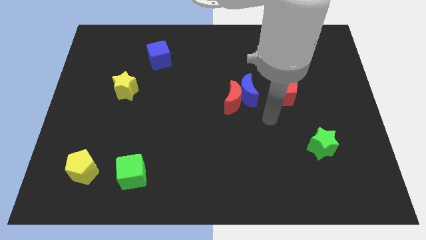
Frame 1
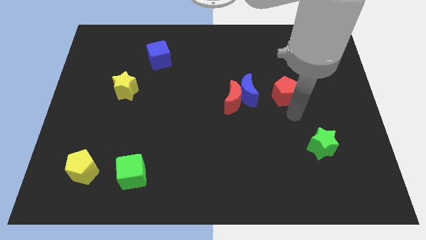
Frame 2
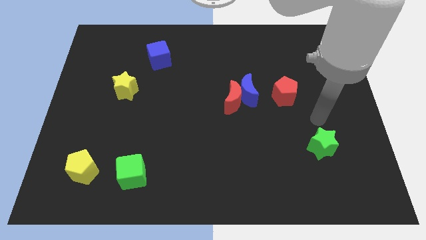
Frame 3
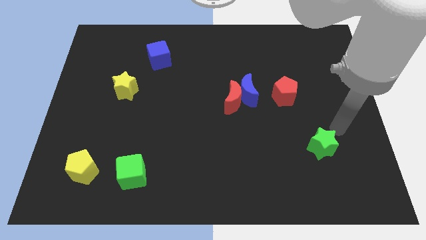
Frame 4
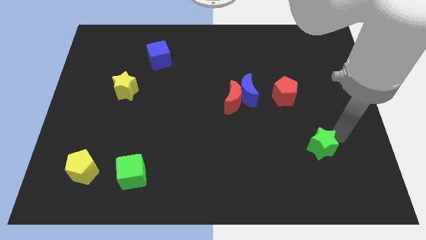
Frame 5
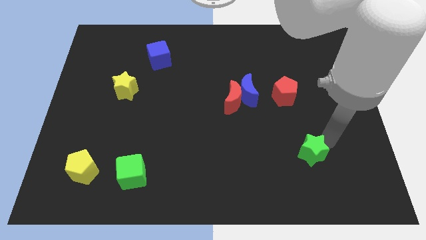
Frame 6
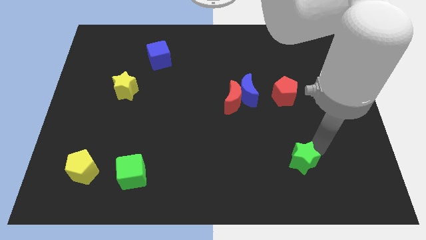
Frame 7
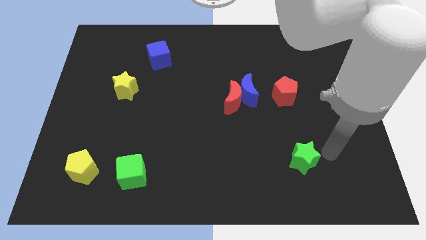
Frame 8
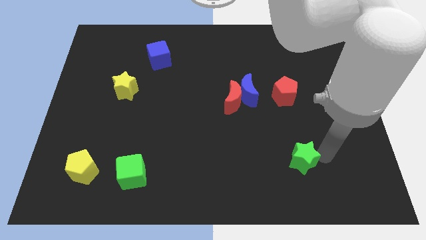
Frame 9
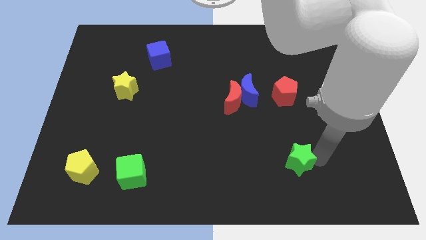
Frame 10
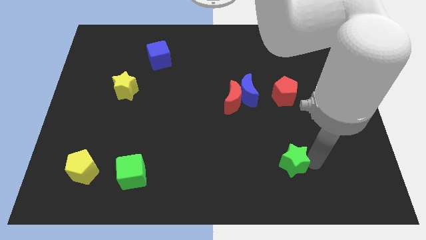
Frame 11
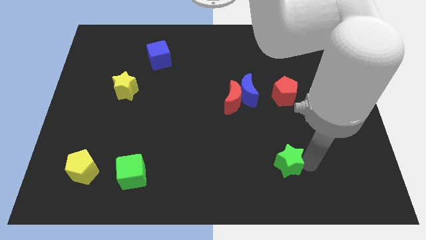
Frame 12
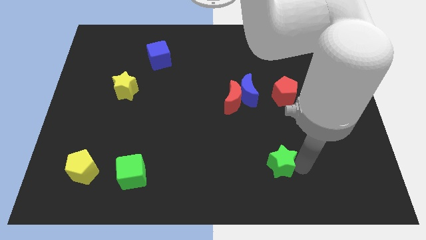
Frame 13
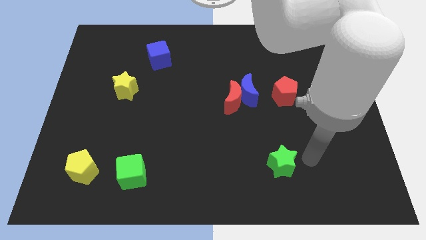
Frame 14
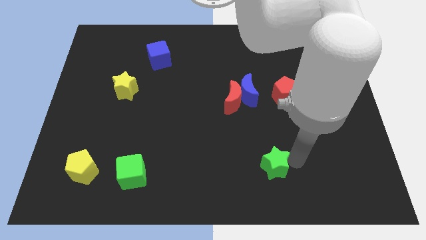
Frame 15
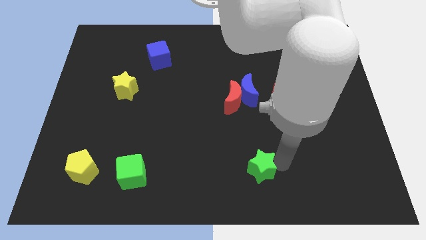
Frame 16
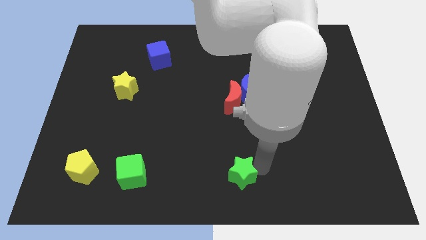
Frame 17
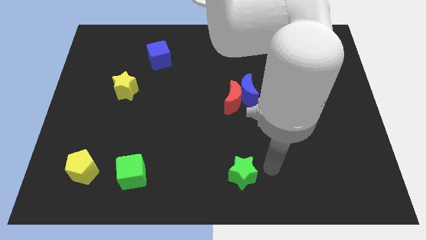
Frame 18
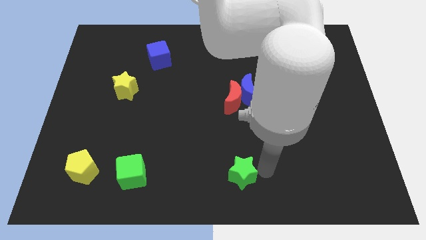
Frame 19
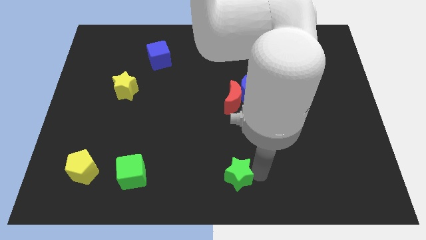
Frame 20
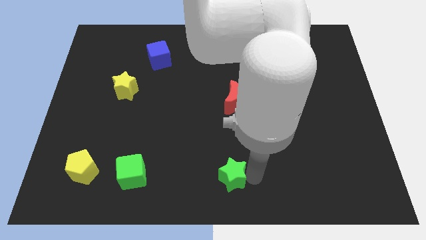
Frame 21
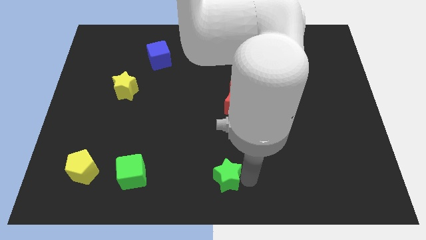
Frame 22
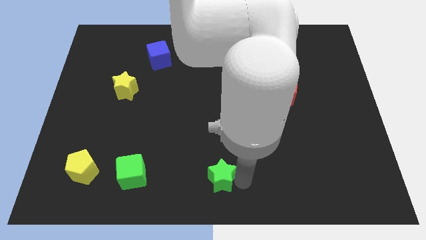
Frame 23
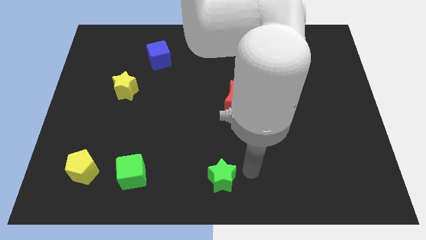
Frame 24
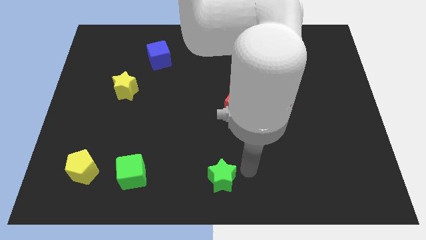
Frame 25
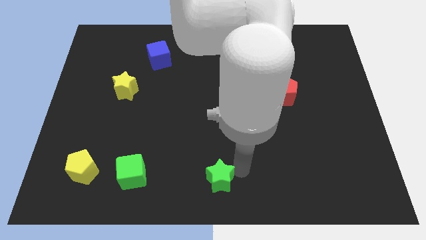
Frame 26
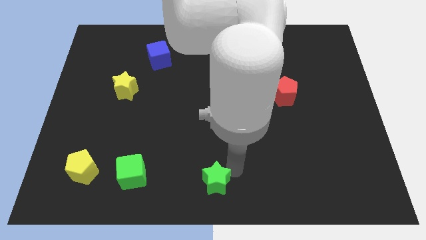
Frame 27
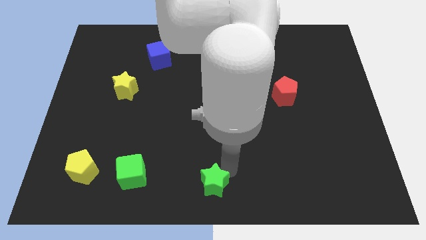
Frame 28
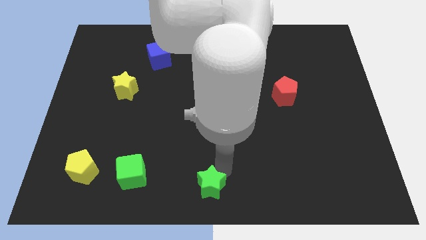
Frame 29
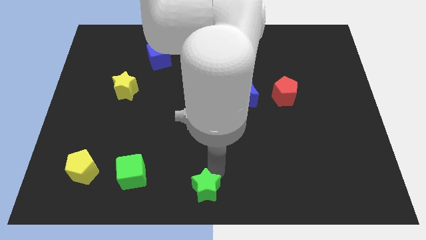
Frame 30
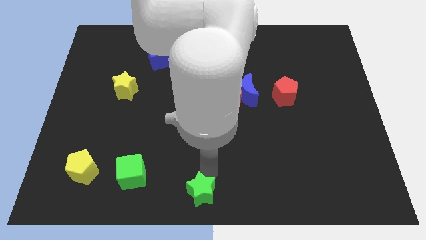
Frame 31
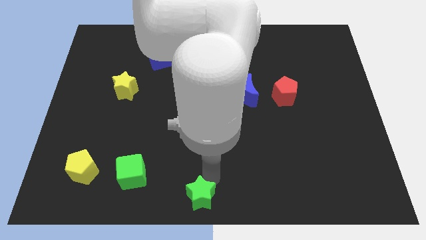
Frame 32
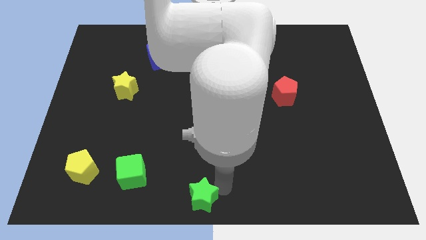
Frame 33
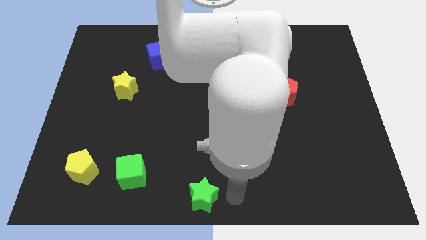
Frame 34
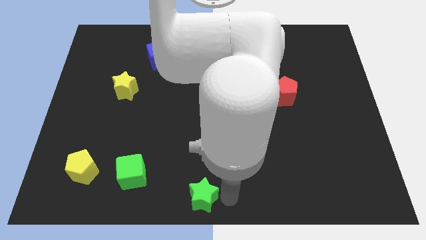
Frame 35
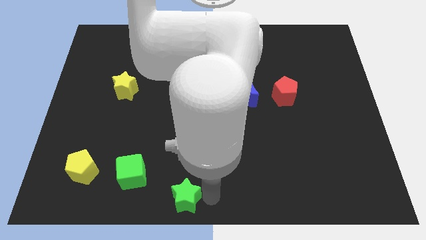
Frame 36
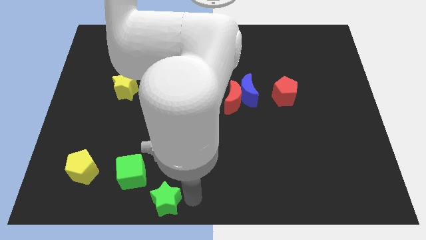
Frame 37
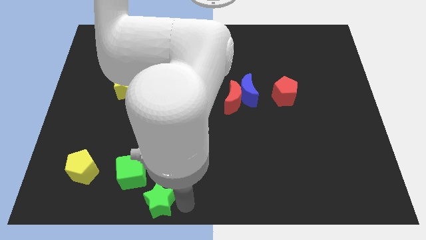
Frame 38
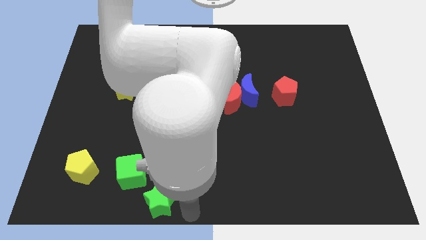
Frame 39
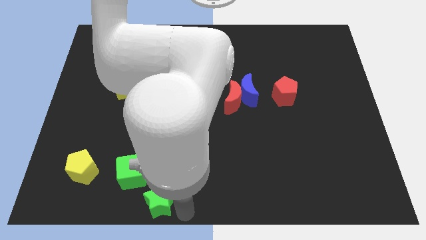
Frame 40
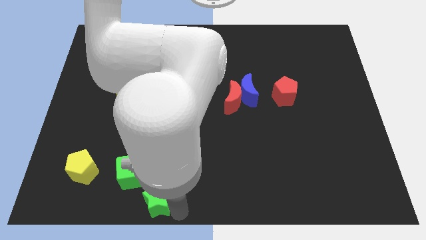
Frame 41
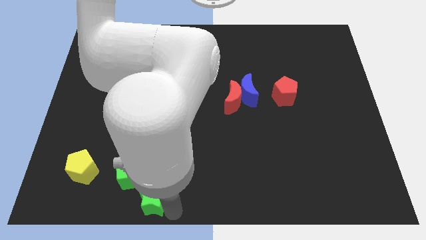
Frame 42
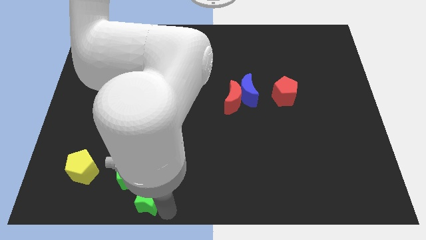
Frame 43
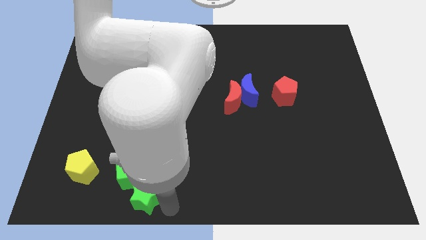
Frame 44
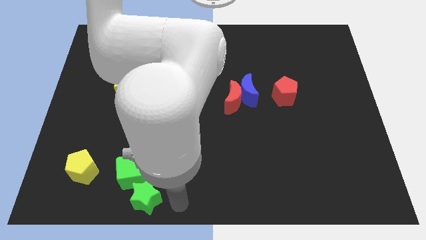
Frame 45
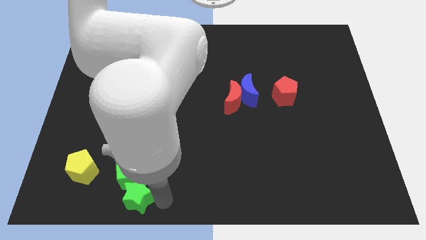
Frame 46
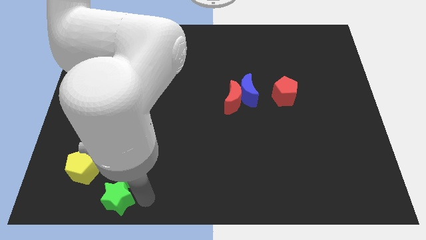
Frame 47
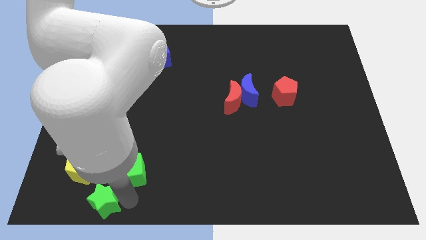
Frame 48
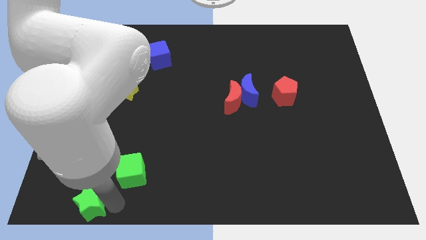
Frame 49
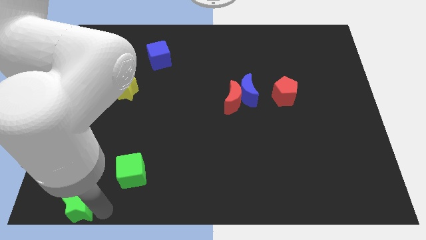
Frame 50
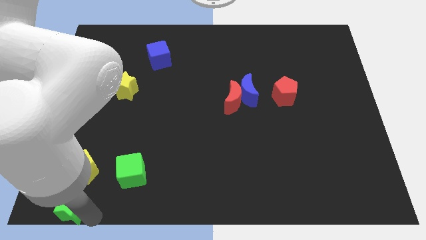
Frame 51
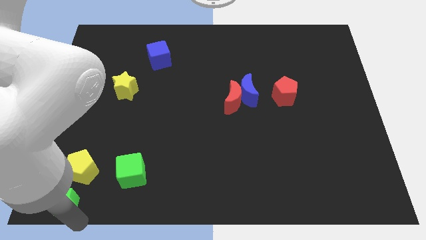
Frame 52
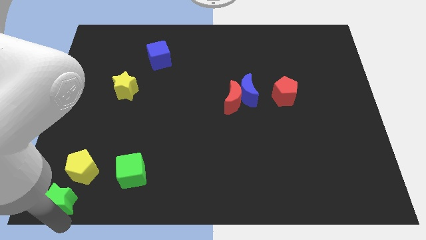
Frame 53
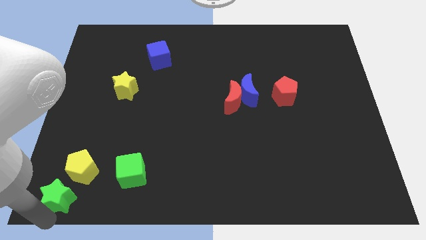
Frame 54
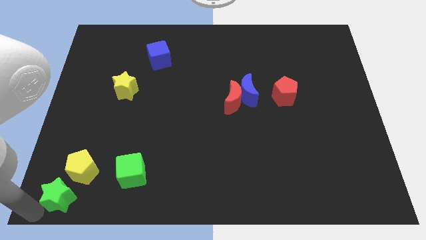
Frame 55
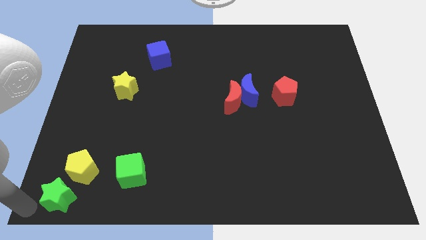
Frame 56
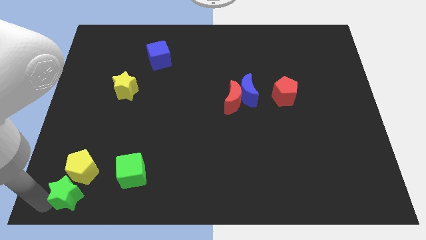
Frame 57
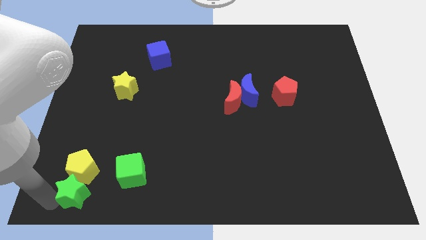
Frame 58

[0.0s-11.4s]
slide the green star to the left side of the green cube

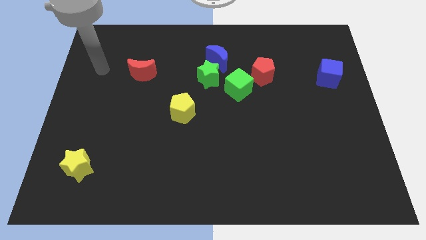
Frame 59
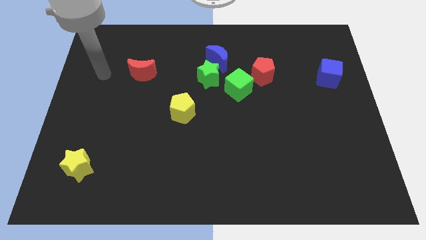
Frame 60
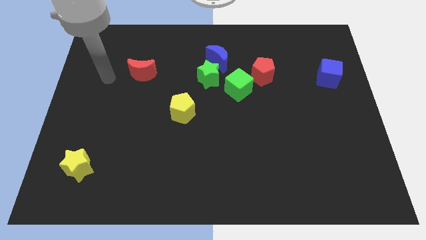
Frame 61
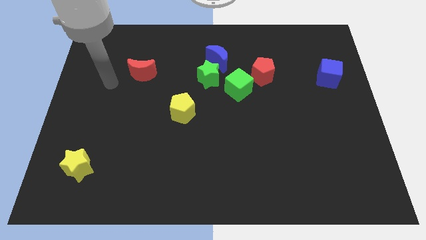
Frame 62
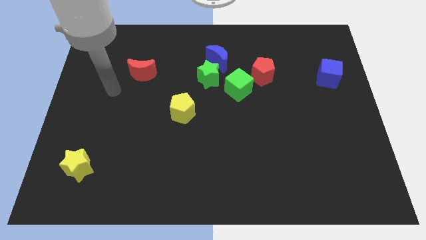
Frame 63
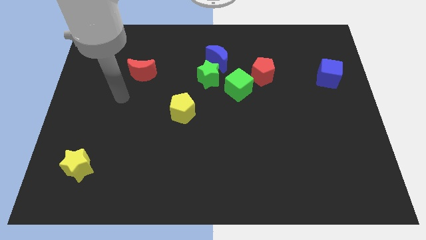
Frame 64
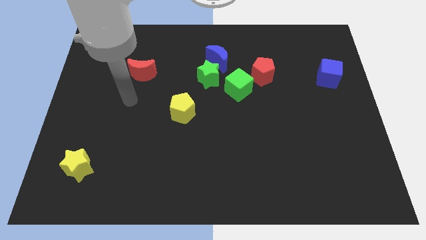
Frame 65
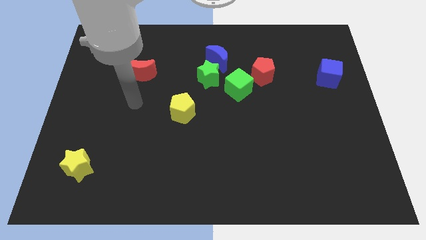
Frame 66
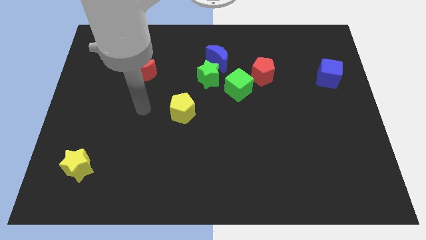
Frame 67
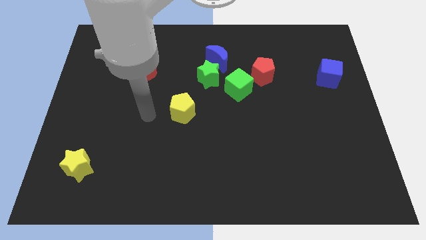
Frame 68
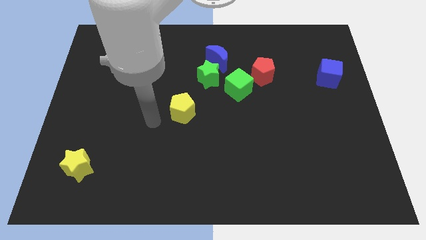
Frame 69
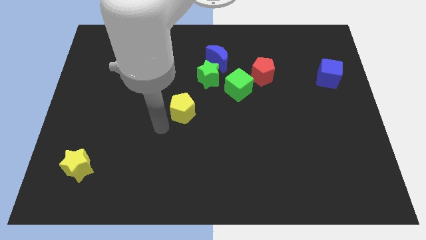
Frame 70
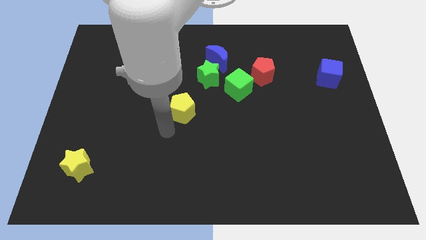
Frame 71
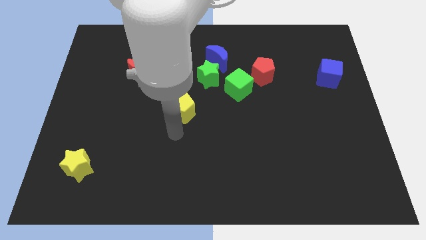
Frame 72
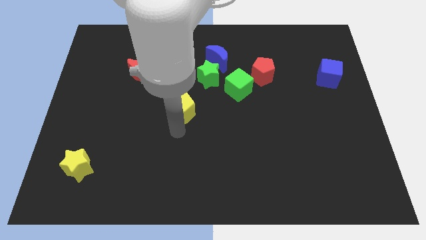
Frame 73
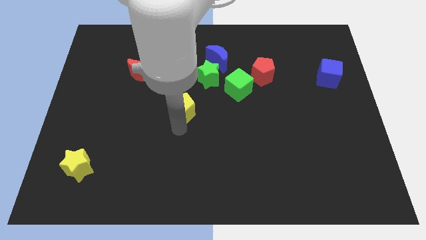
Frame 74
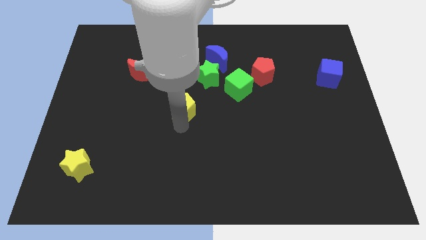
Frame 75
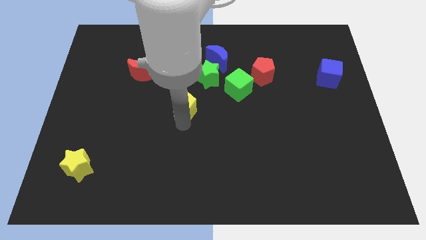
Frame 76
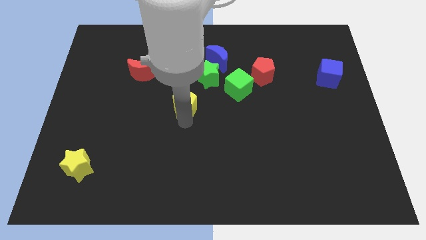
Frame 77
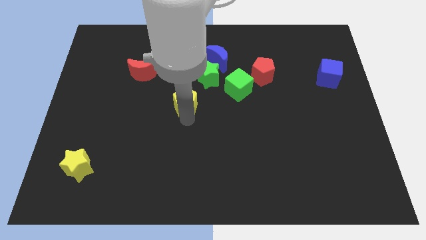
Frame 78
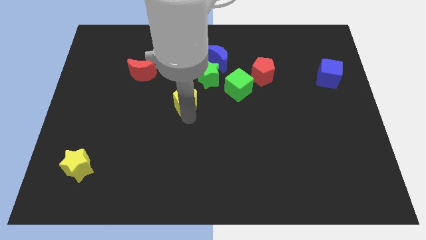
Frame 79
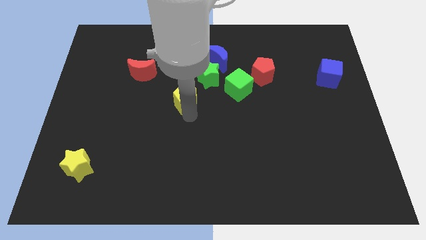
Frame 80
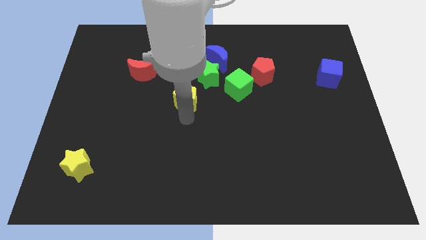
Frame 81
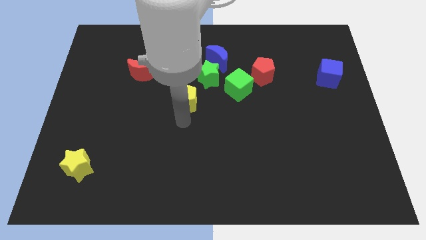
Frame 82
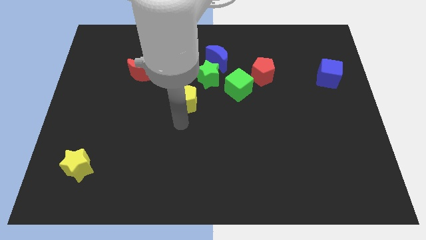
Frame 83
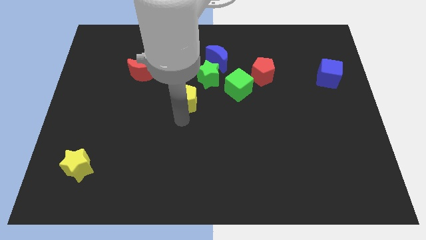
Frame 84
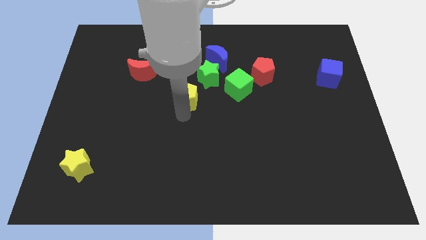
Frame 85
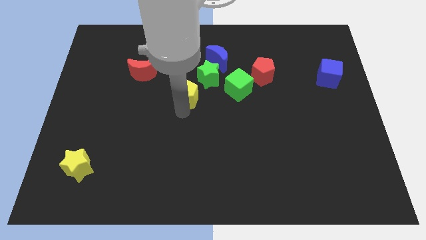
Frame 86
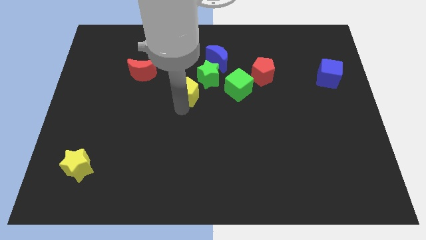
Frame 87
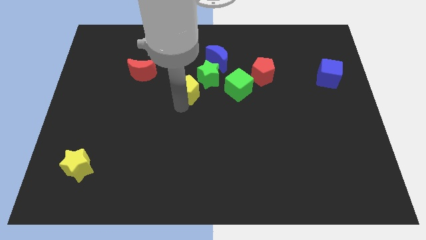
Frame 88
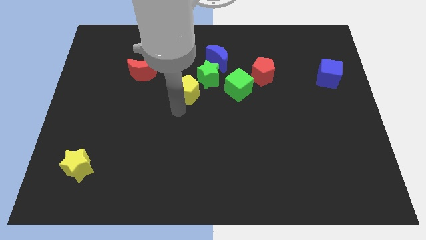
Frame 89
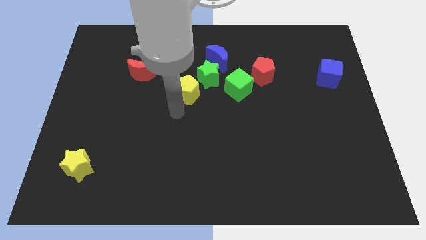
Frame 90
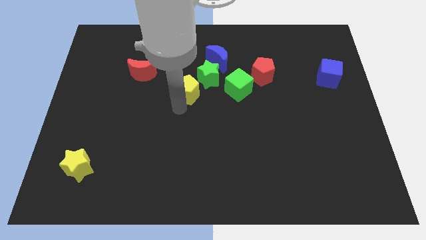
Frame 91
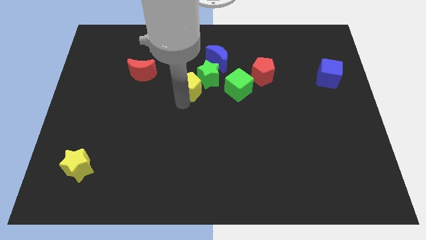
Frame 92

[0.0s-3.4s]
push the yellow pentagon diagonally down and to the left of the blue moon
